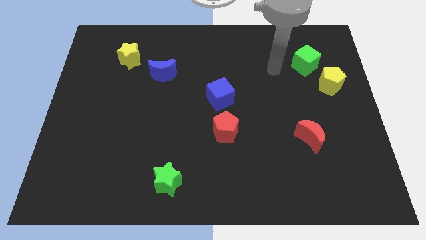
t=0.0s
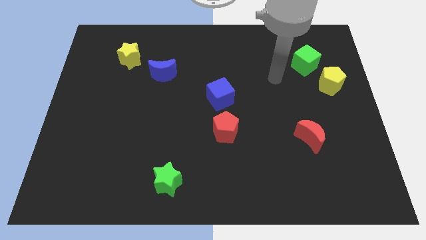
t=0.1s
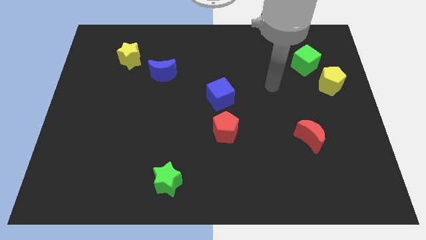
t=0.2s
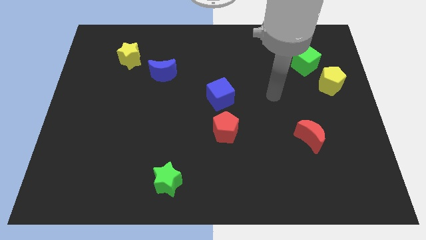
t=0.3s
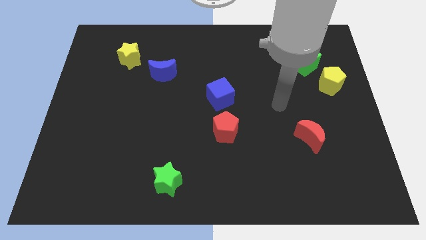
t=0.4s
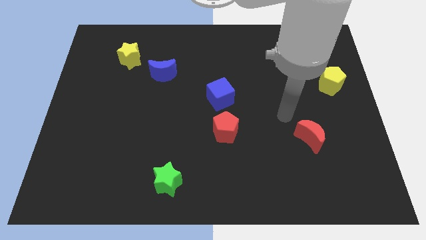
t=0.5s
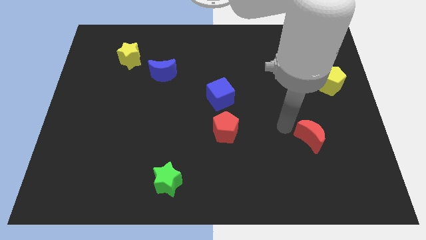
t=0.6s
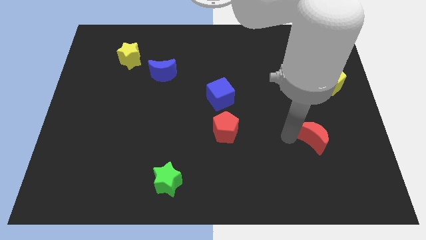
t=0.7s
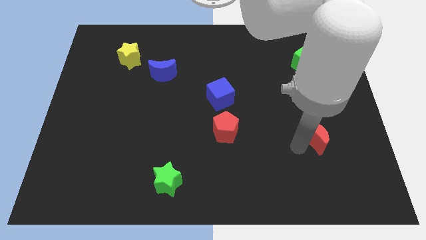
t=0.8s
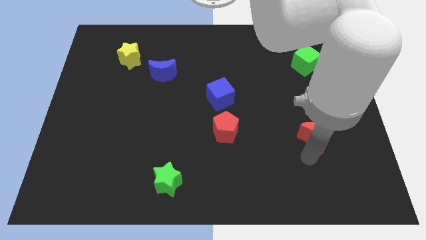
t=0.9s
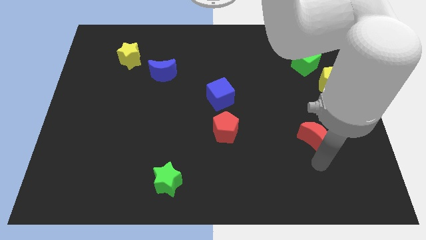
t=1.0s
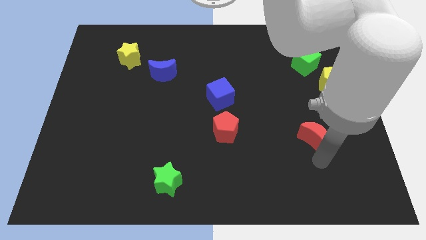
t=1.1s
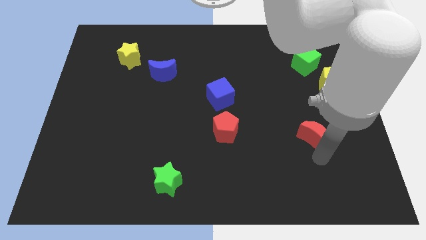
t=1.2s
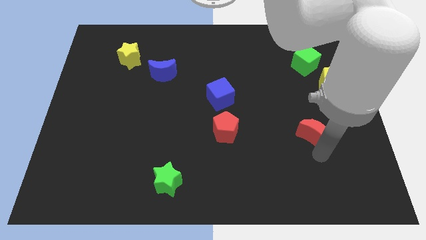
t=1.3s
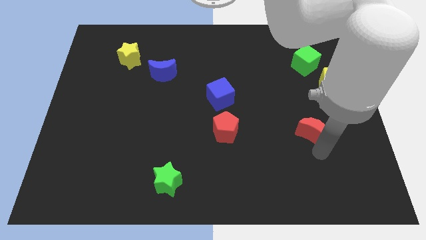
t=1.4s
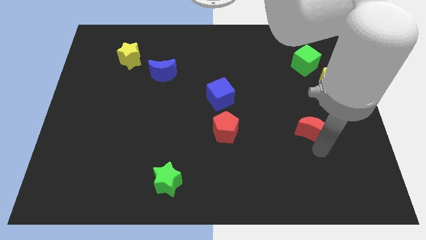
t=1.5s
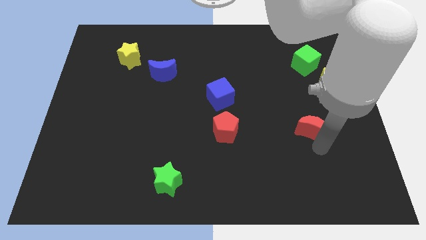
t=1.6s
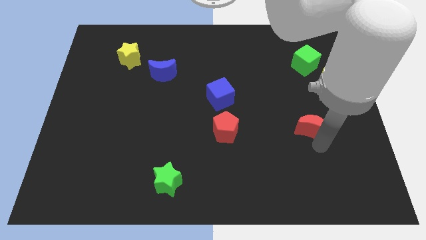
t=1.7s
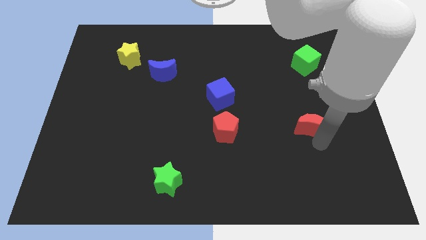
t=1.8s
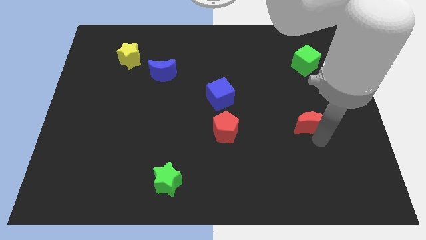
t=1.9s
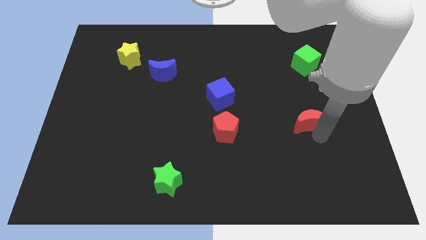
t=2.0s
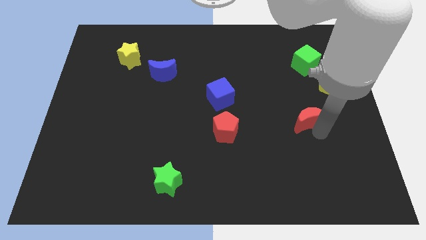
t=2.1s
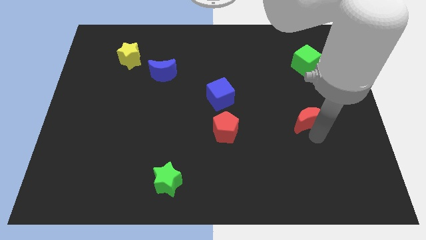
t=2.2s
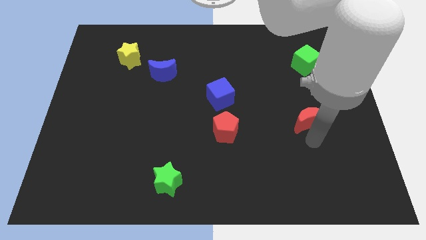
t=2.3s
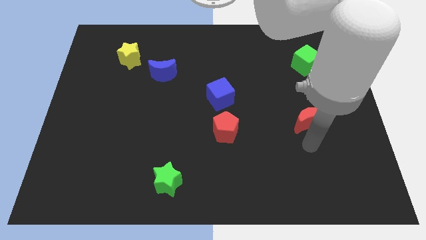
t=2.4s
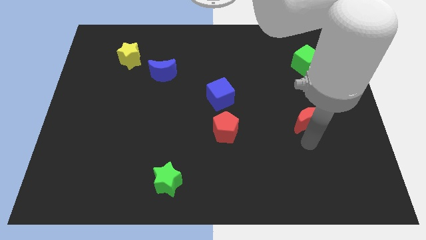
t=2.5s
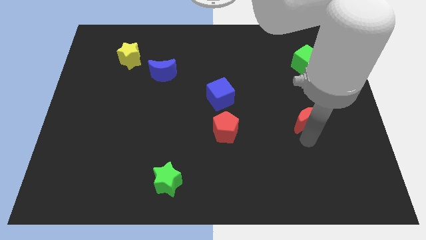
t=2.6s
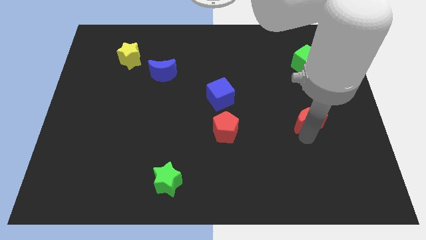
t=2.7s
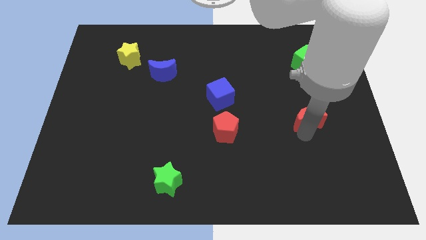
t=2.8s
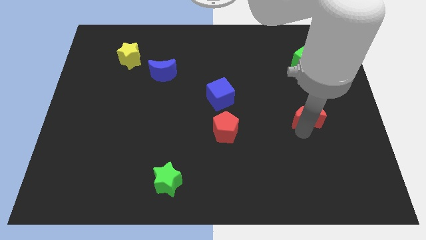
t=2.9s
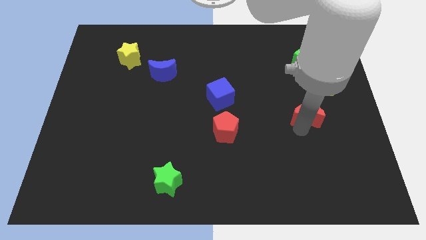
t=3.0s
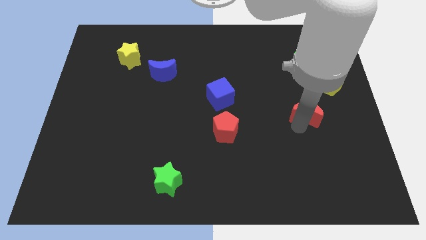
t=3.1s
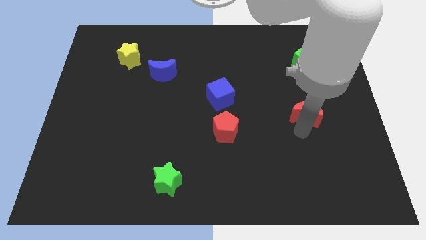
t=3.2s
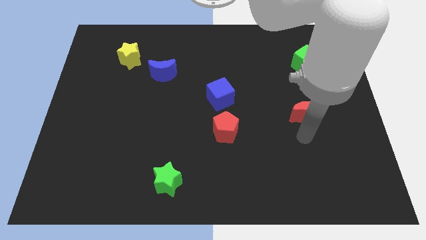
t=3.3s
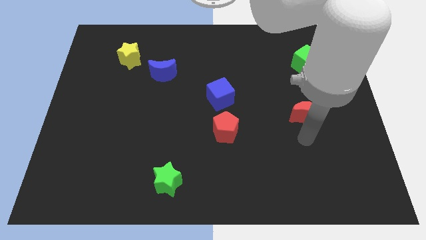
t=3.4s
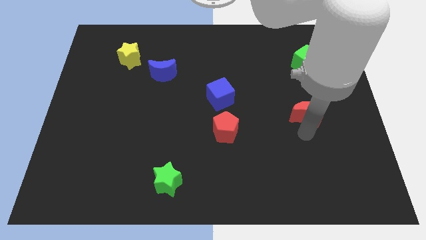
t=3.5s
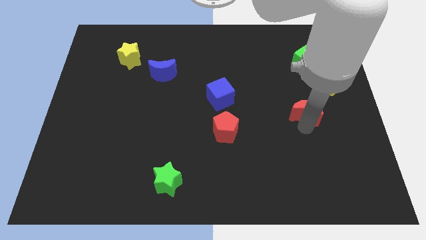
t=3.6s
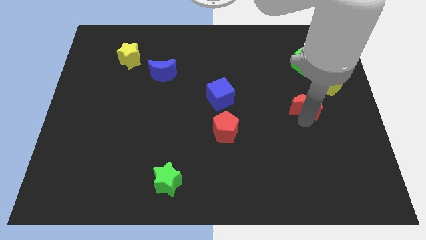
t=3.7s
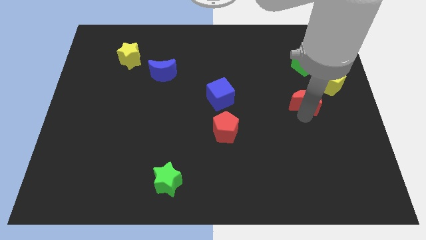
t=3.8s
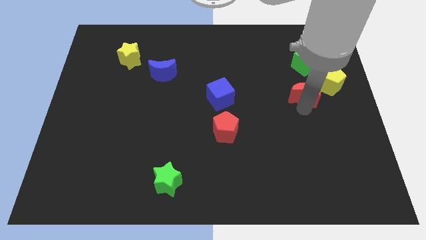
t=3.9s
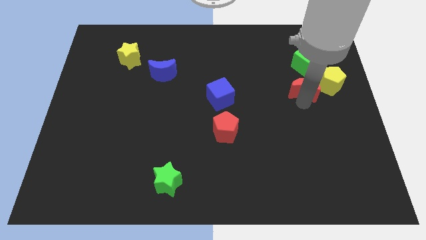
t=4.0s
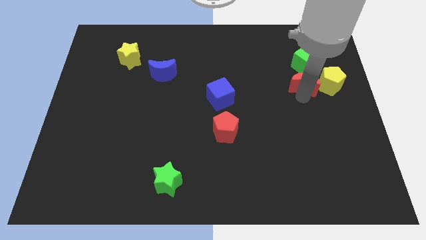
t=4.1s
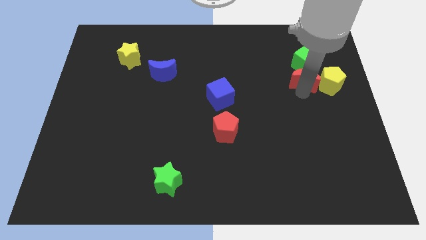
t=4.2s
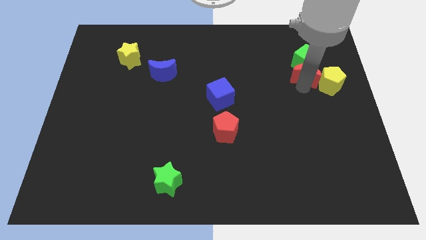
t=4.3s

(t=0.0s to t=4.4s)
slide the red moon close to the green cube

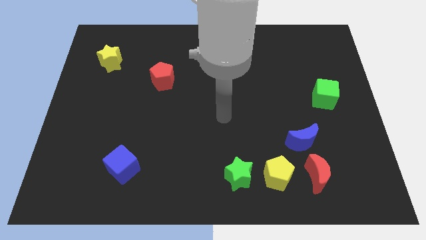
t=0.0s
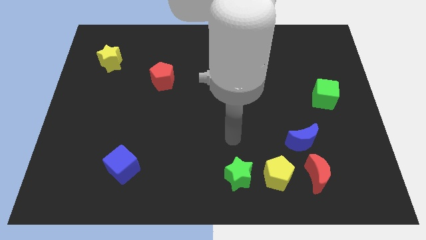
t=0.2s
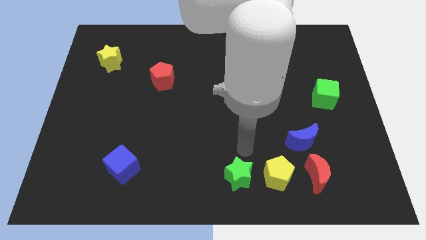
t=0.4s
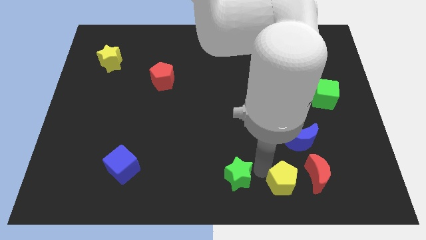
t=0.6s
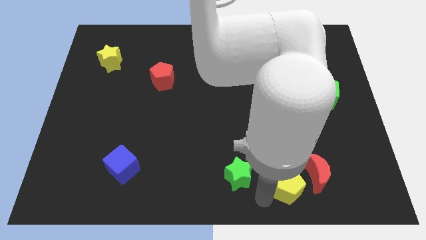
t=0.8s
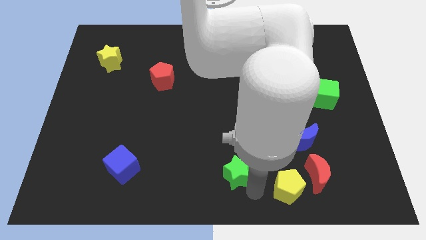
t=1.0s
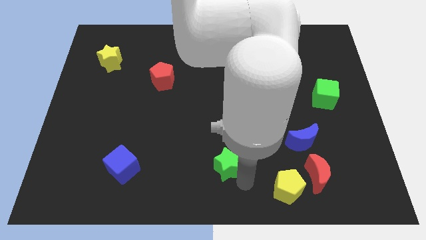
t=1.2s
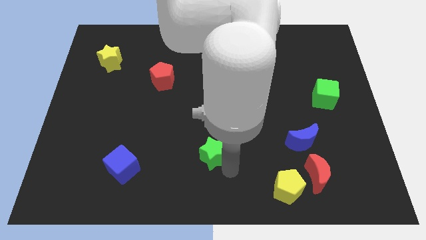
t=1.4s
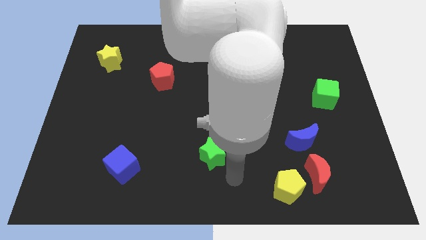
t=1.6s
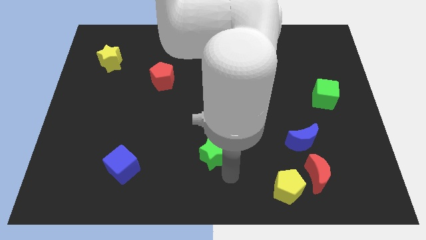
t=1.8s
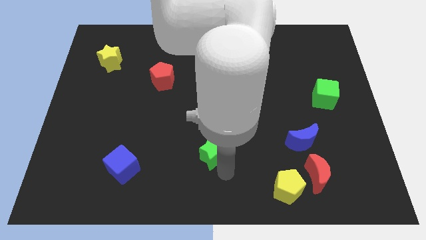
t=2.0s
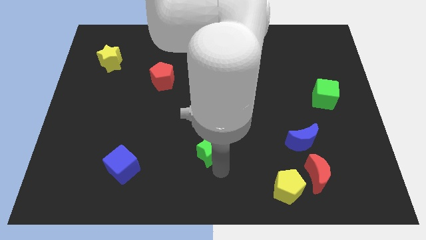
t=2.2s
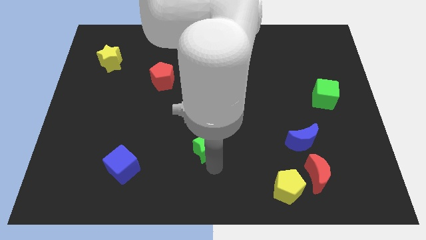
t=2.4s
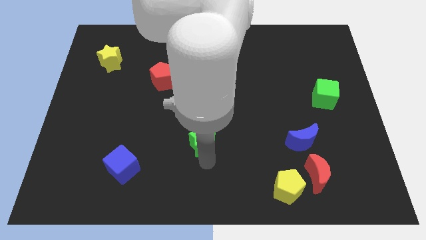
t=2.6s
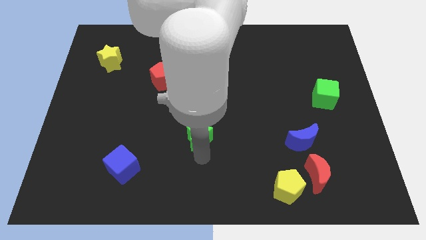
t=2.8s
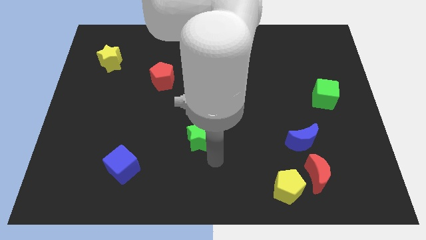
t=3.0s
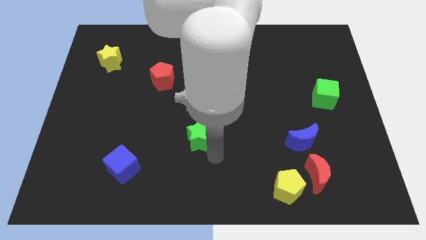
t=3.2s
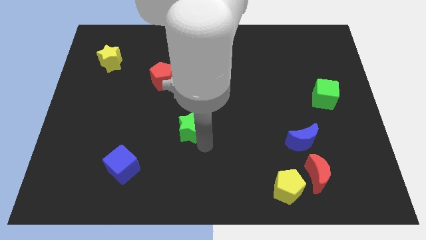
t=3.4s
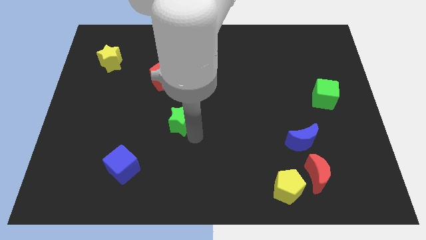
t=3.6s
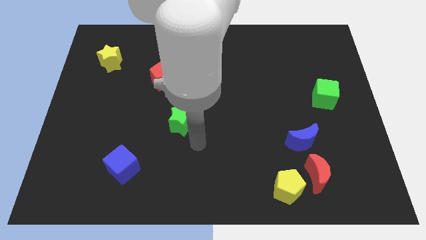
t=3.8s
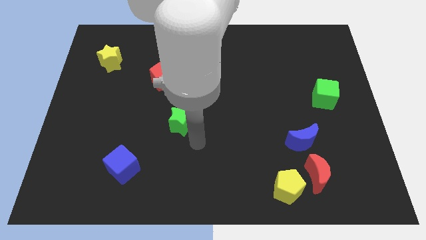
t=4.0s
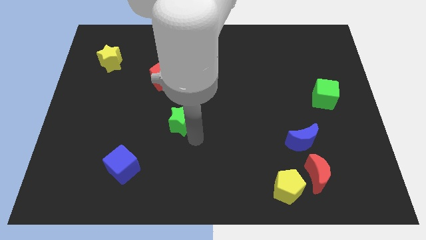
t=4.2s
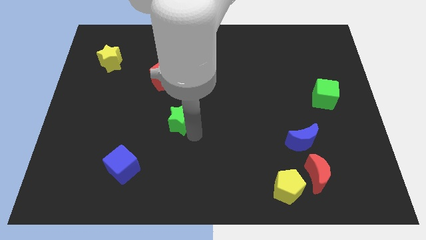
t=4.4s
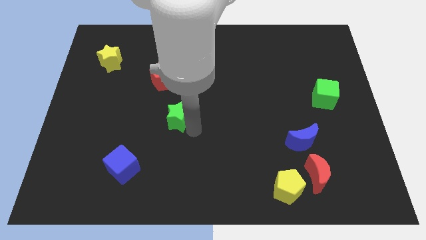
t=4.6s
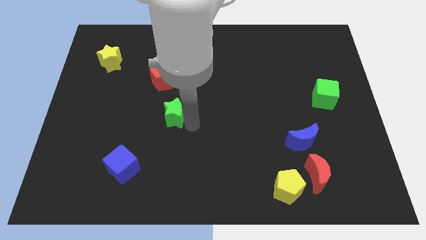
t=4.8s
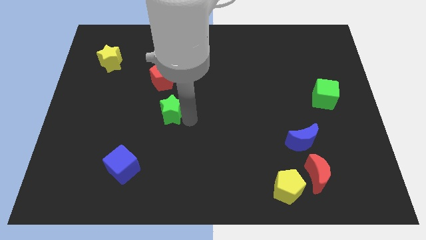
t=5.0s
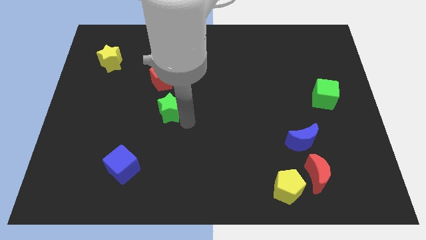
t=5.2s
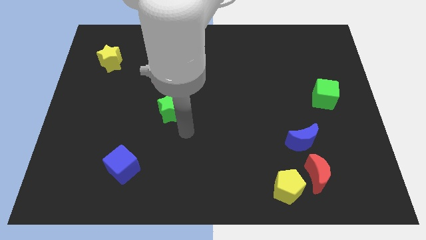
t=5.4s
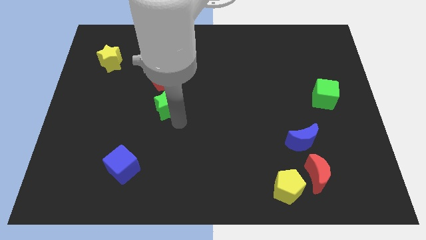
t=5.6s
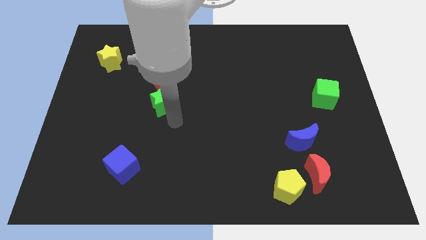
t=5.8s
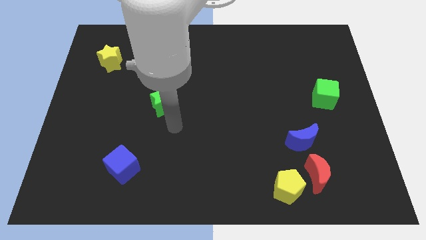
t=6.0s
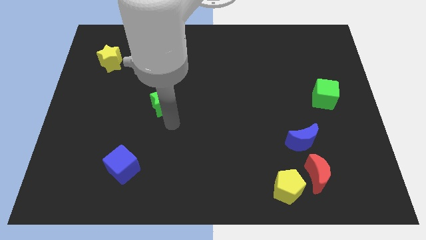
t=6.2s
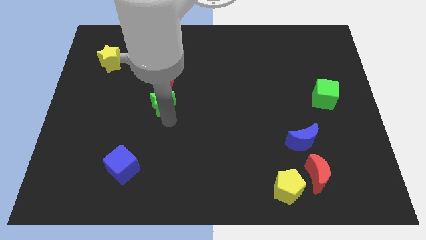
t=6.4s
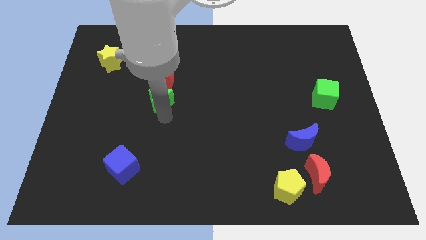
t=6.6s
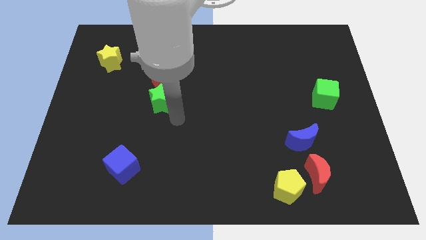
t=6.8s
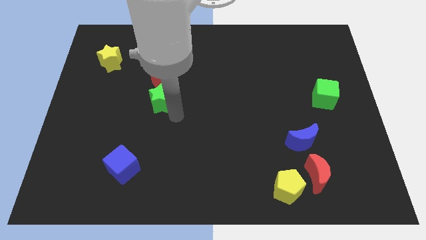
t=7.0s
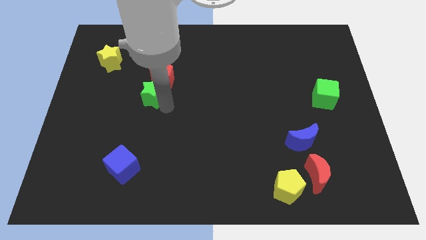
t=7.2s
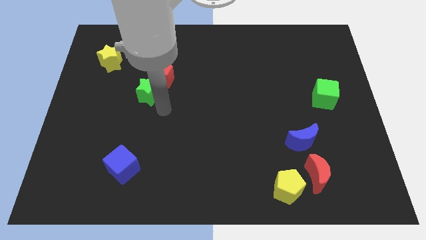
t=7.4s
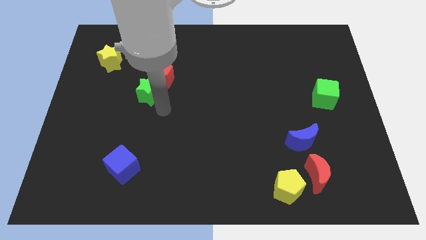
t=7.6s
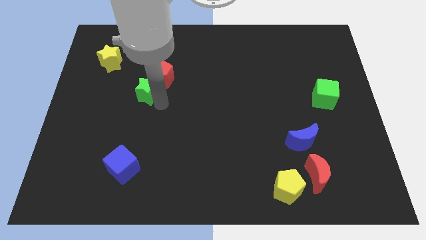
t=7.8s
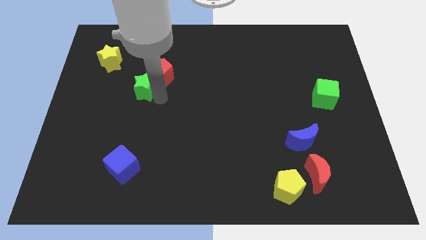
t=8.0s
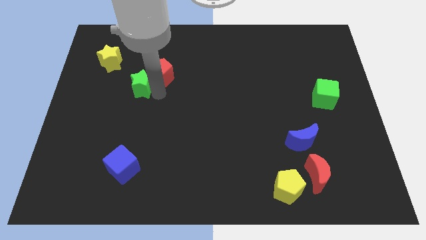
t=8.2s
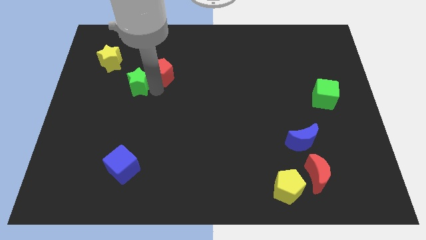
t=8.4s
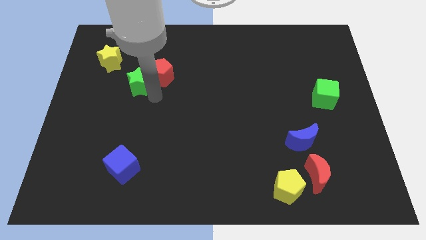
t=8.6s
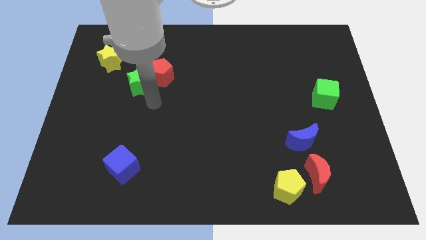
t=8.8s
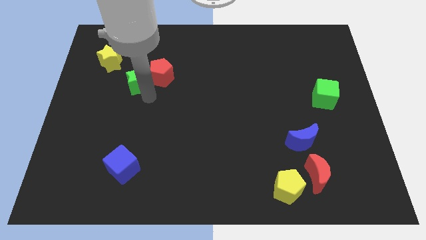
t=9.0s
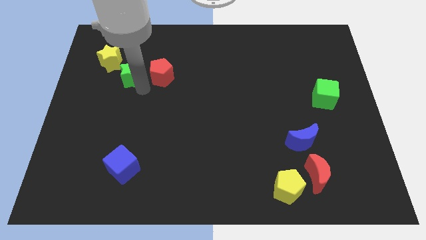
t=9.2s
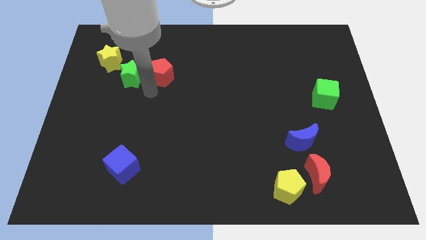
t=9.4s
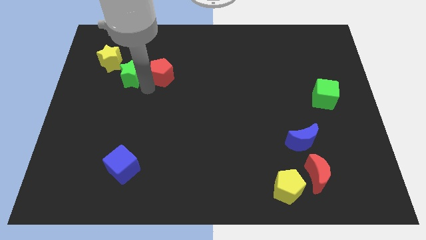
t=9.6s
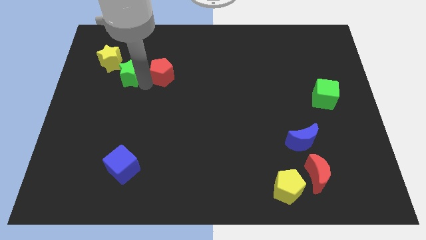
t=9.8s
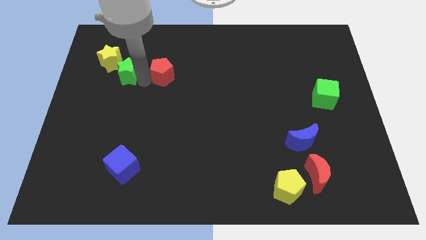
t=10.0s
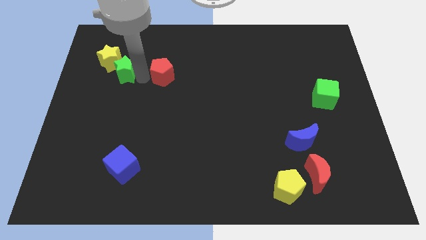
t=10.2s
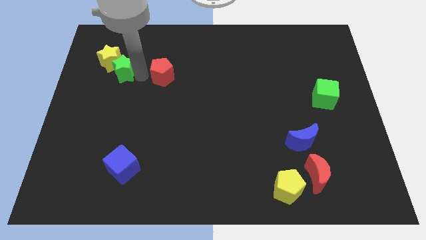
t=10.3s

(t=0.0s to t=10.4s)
put the green star to the yellow star
